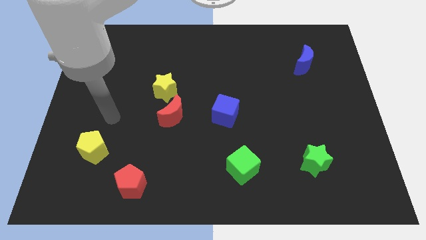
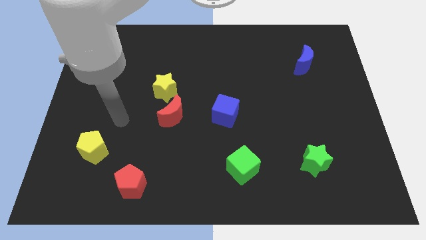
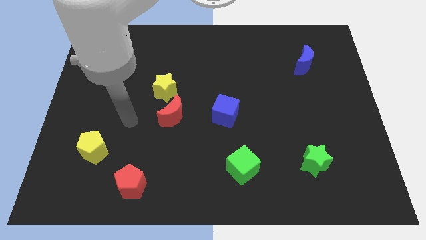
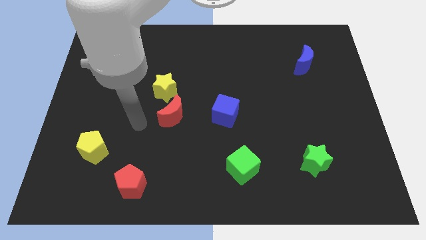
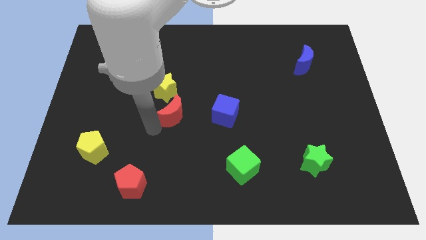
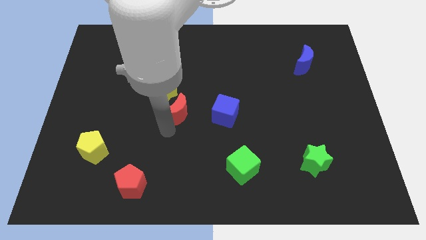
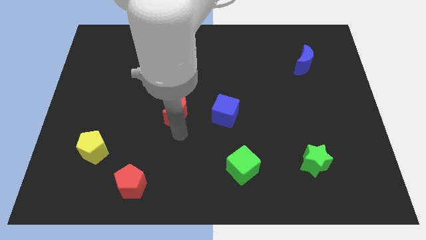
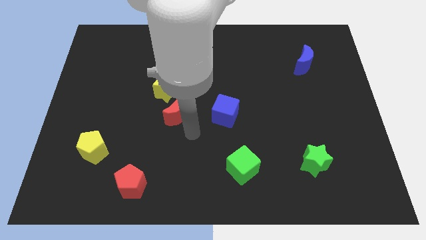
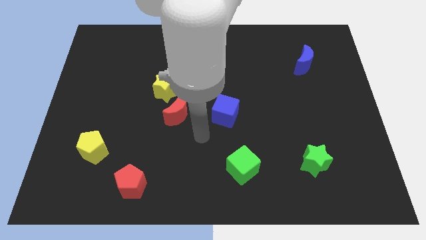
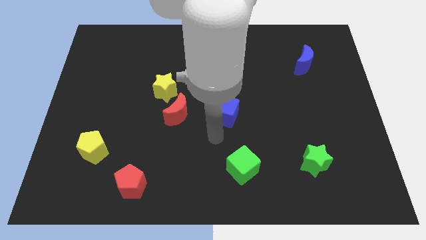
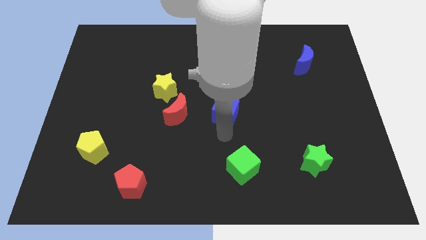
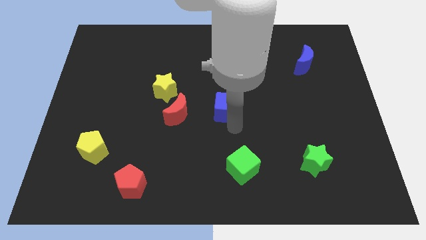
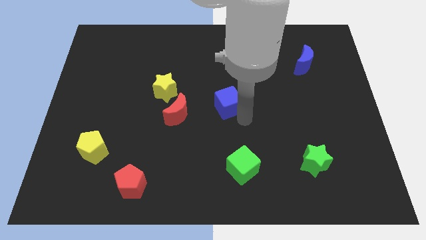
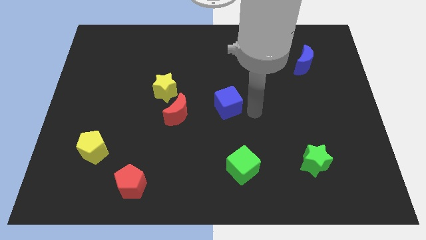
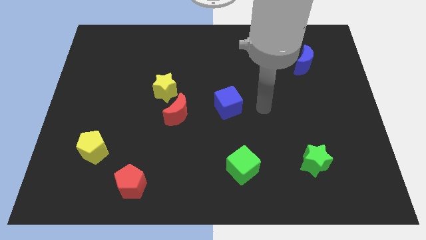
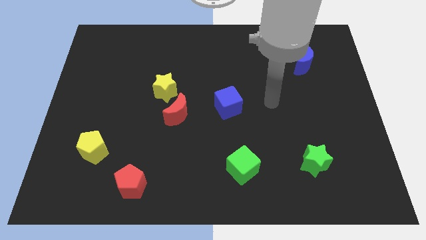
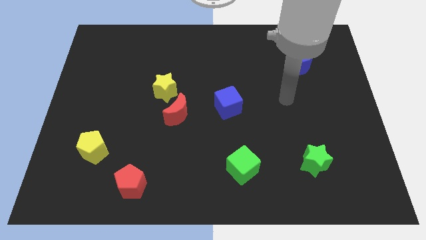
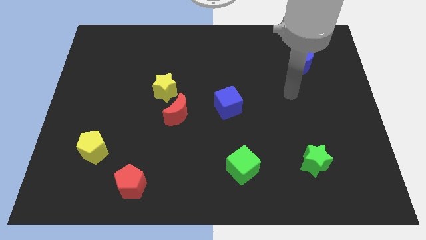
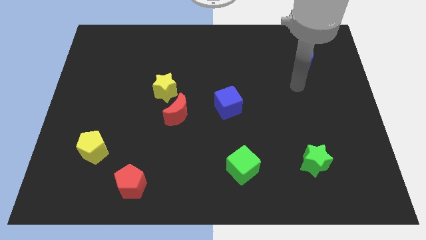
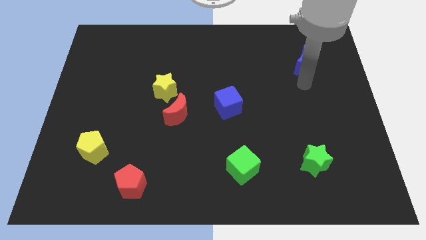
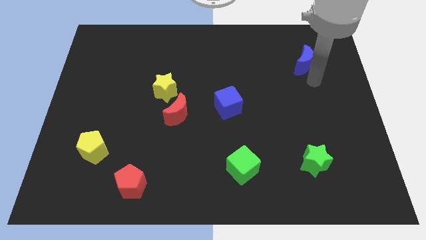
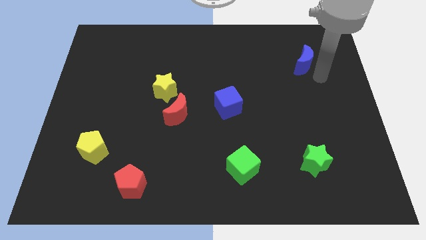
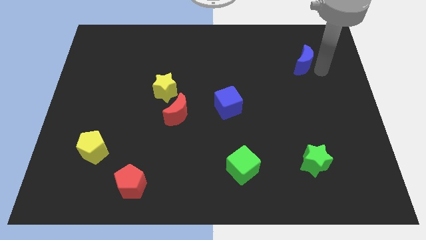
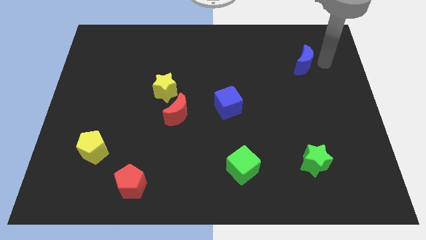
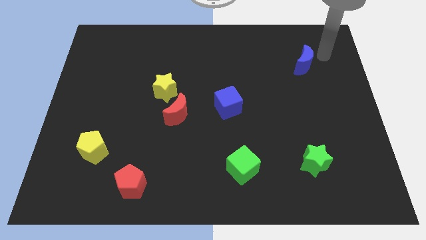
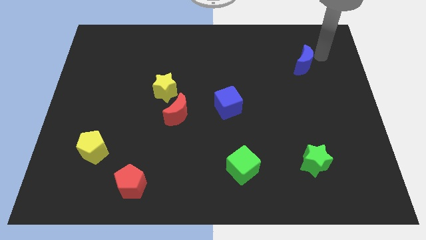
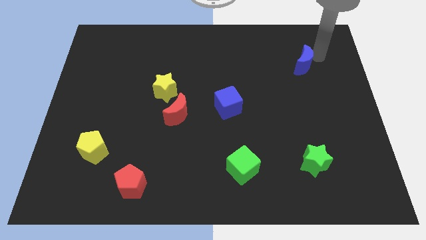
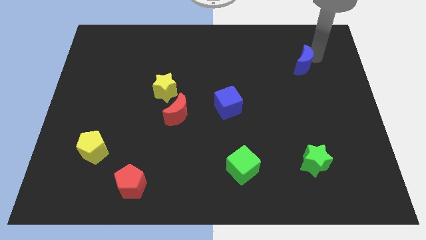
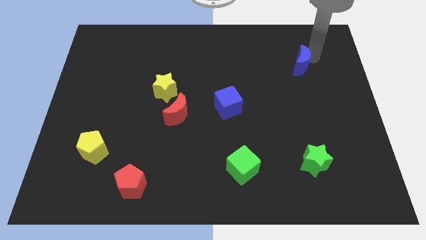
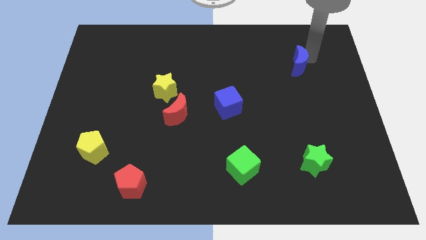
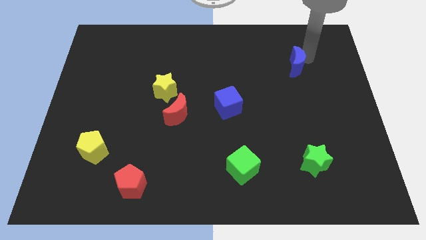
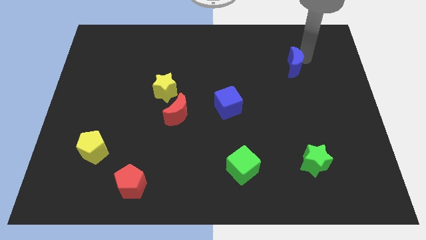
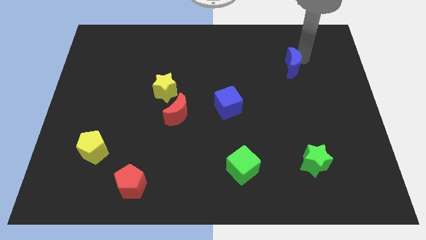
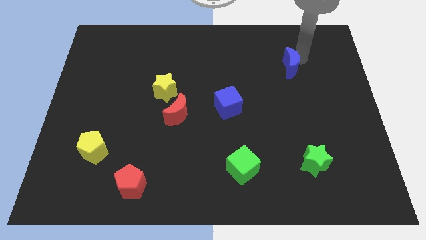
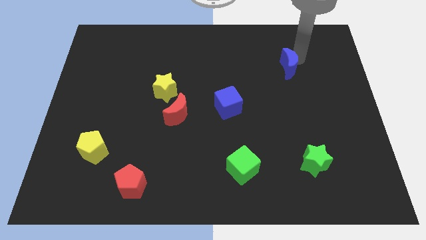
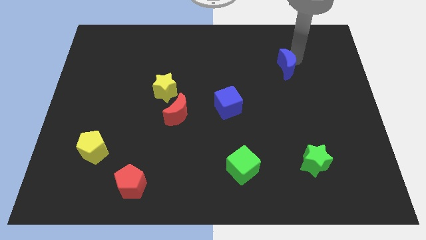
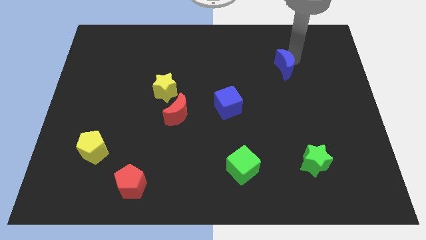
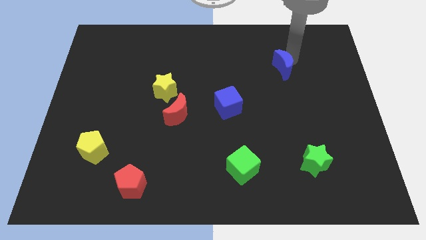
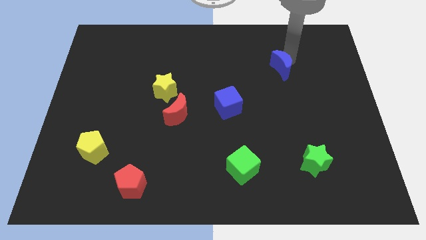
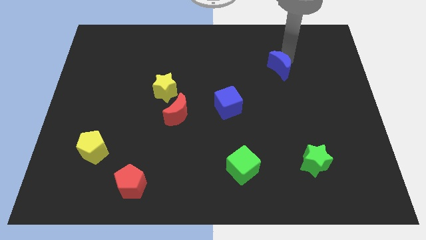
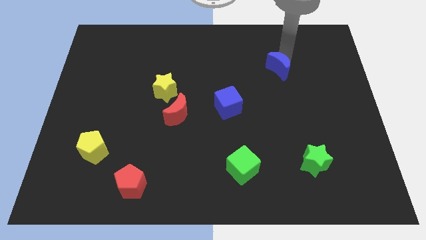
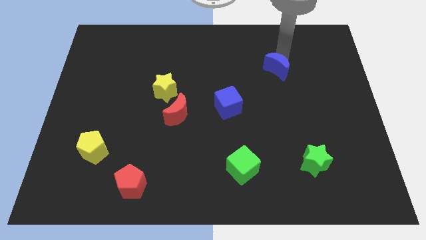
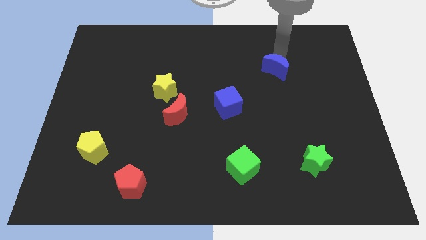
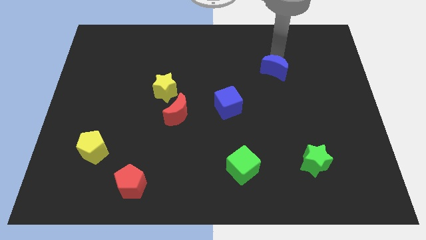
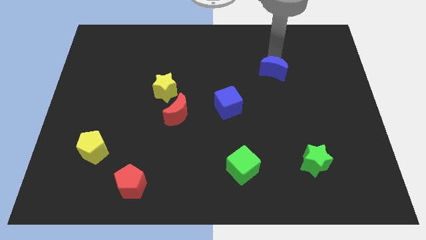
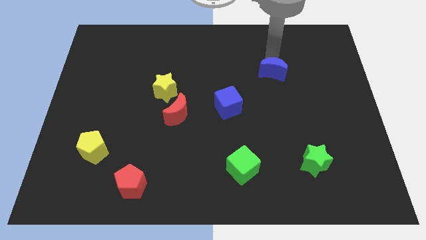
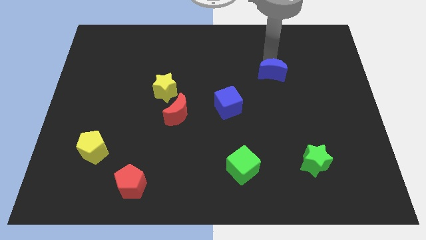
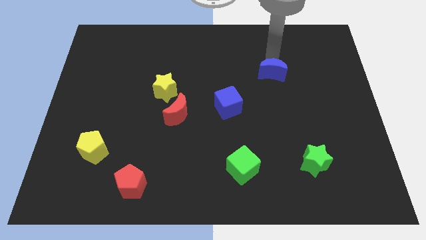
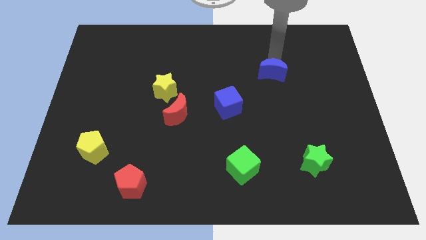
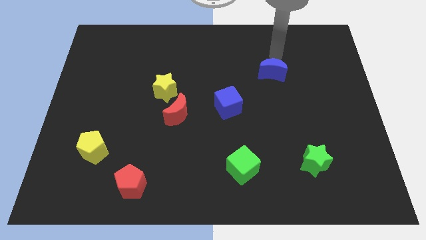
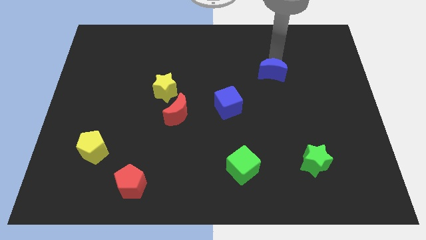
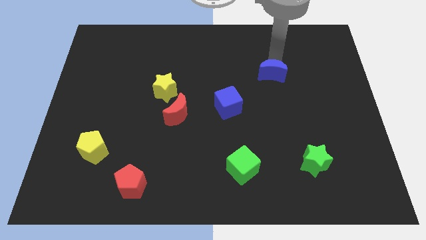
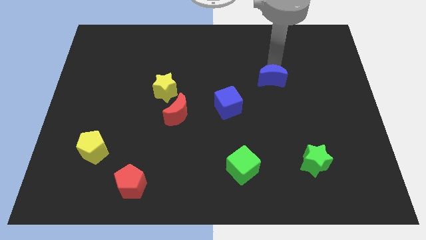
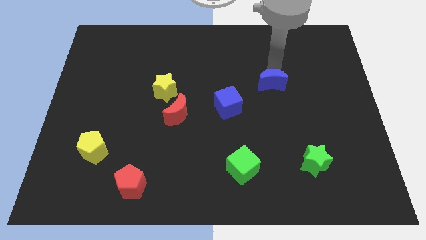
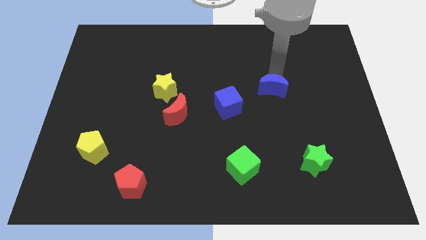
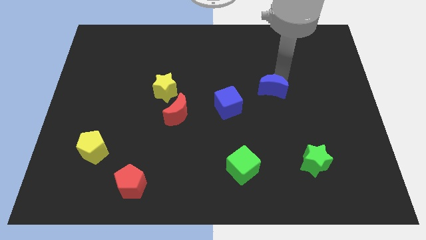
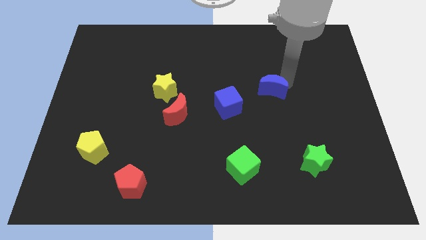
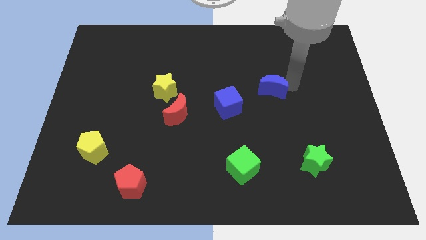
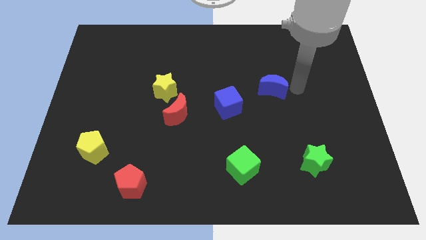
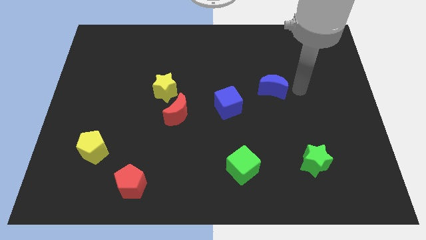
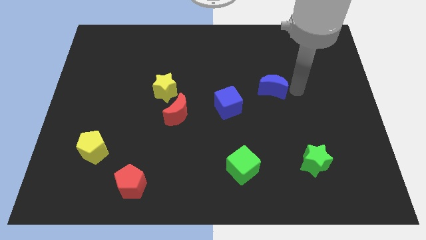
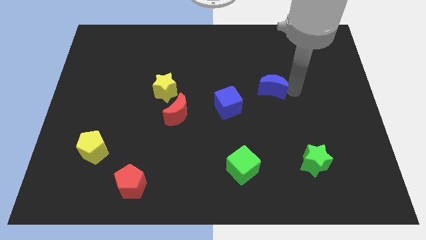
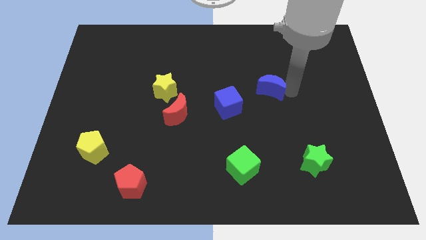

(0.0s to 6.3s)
push the blue moon to the top right side of the blue cube

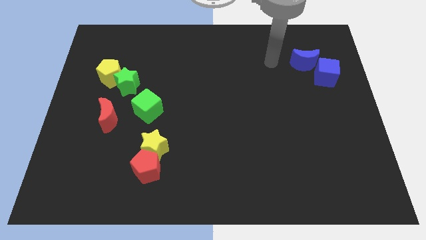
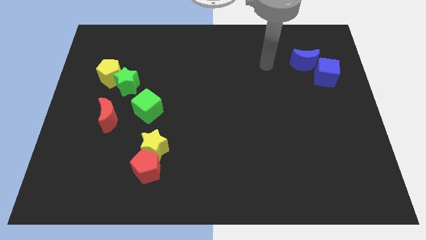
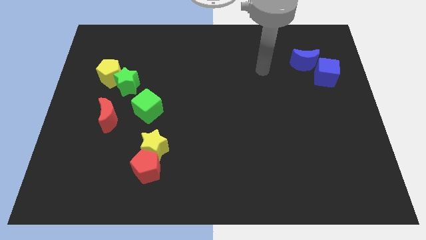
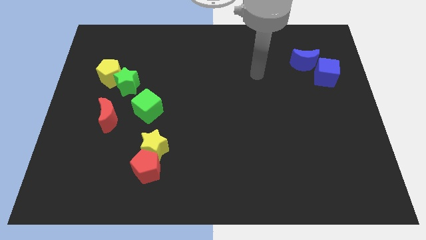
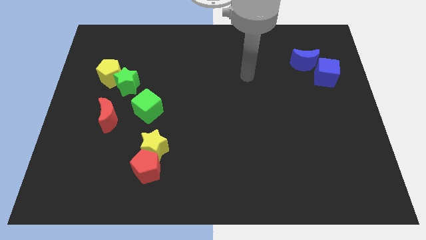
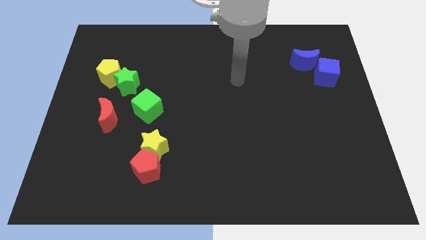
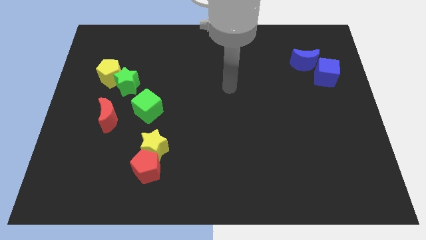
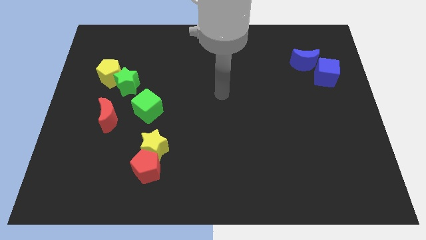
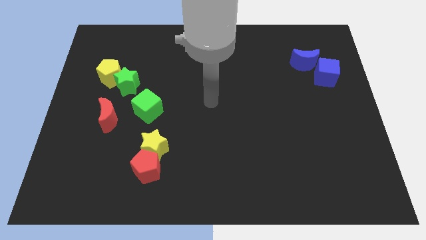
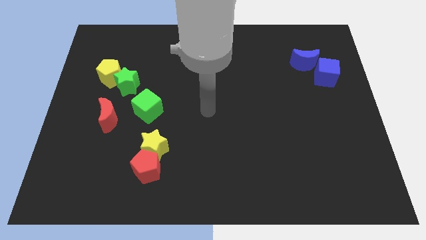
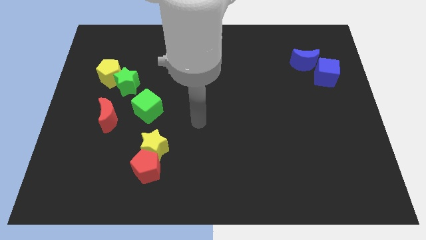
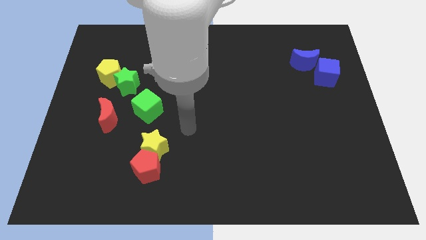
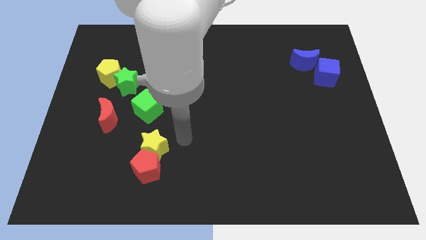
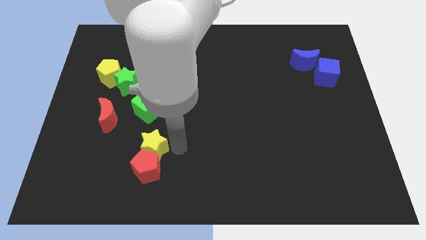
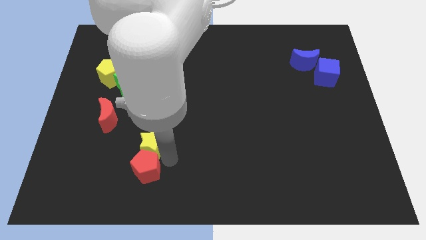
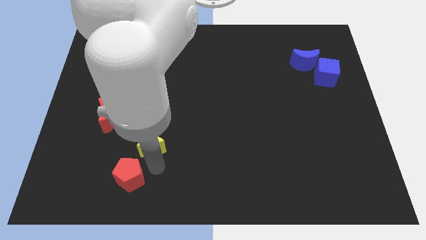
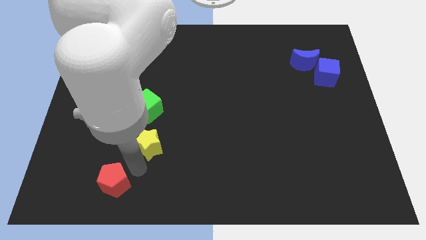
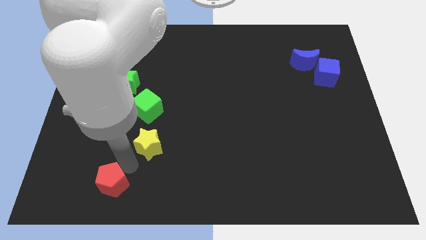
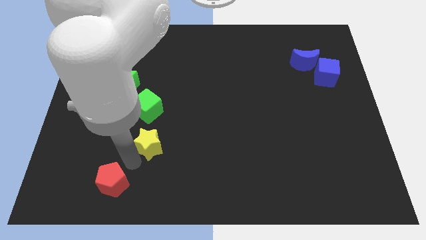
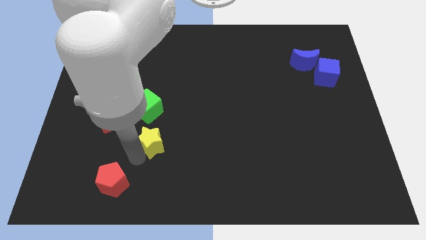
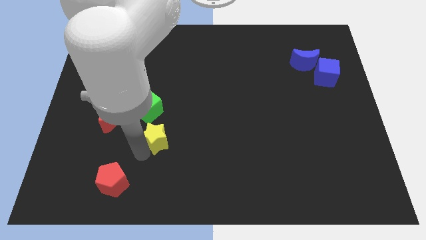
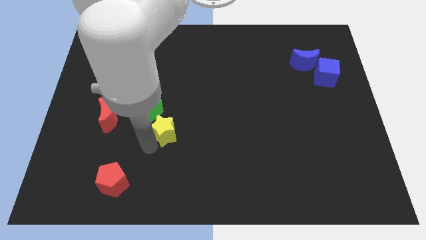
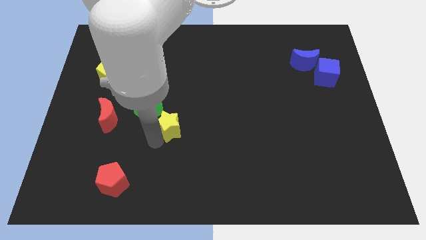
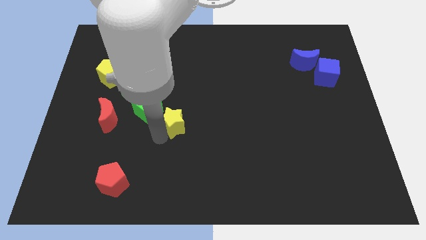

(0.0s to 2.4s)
move the yellow star to the right of the green cube
